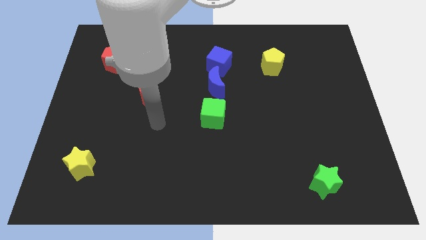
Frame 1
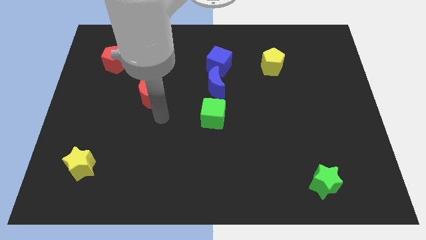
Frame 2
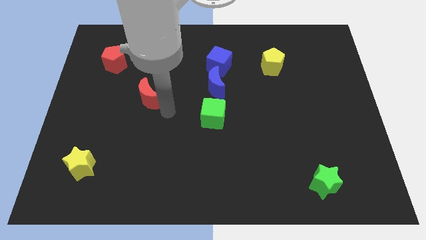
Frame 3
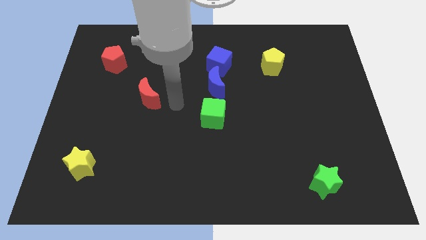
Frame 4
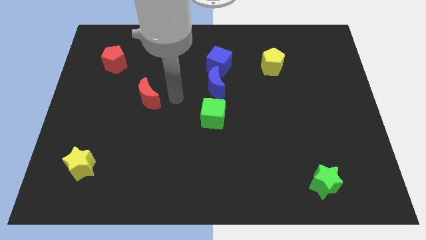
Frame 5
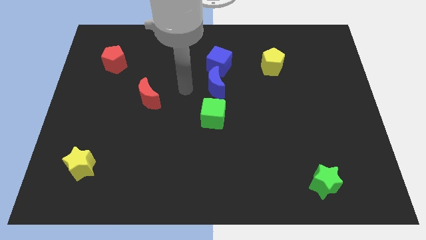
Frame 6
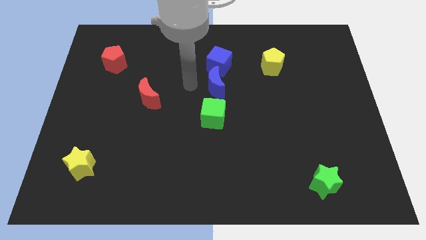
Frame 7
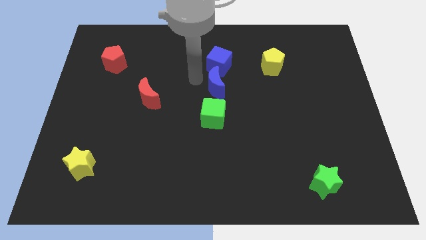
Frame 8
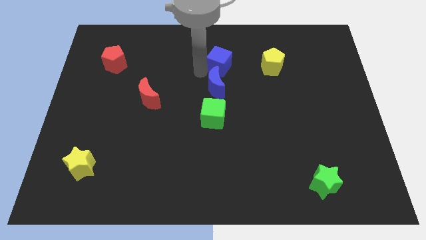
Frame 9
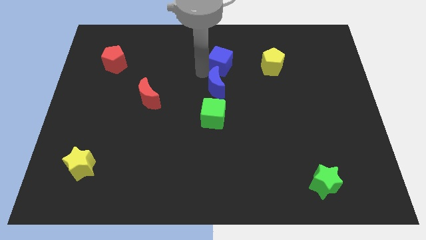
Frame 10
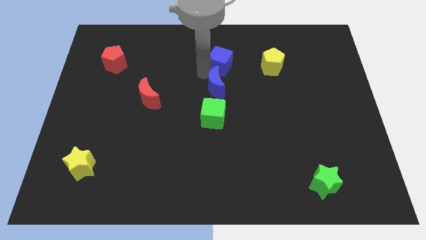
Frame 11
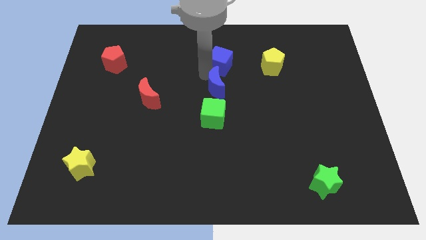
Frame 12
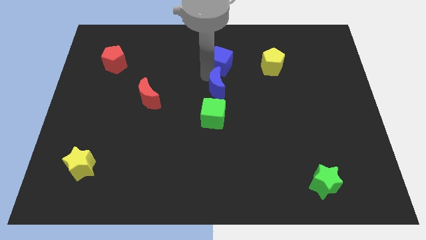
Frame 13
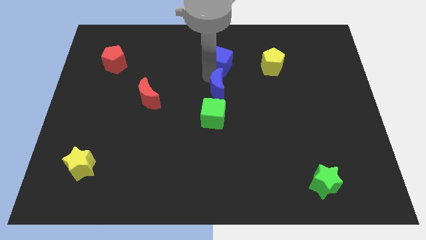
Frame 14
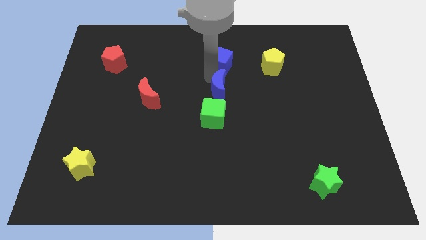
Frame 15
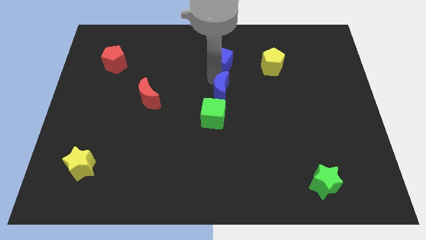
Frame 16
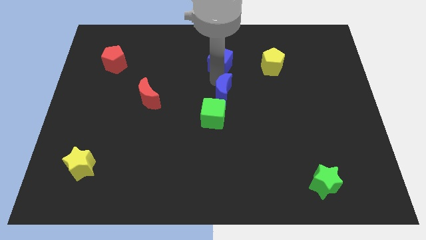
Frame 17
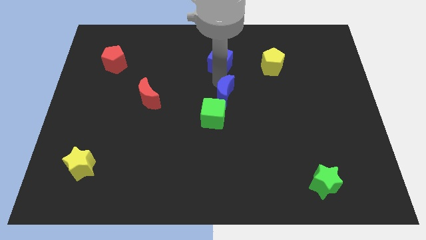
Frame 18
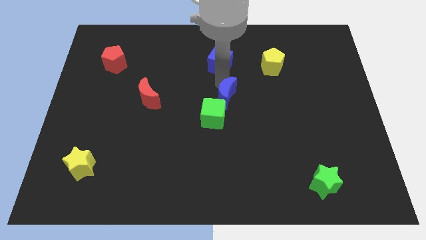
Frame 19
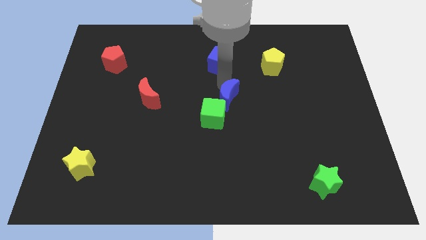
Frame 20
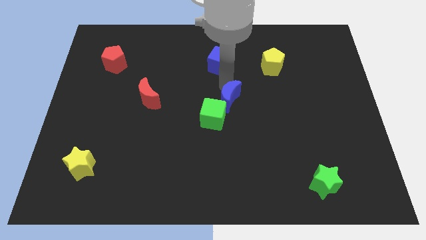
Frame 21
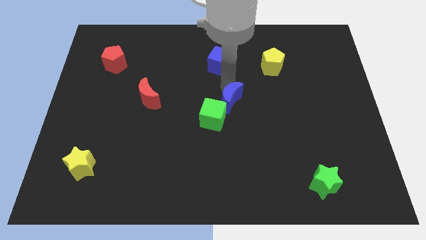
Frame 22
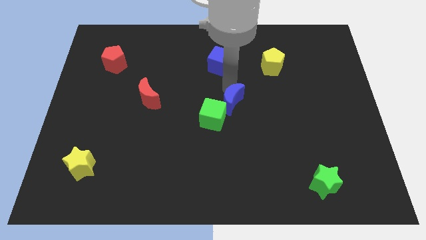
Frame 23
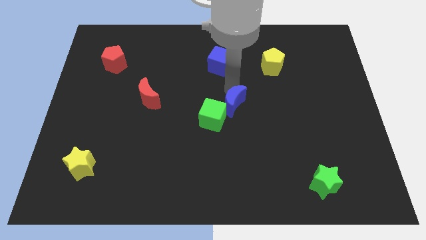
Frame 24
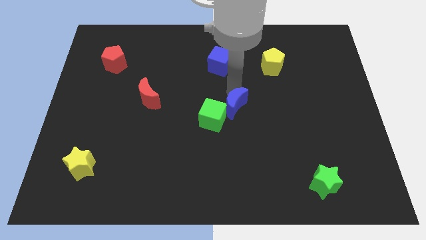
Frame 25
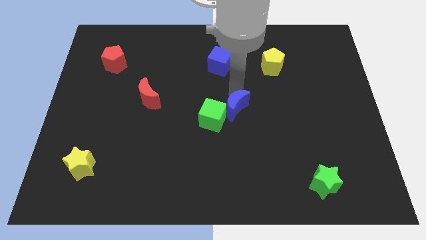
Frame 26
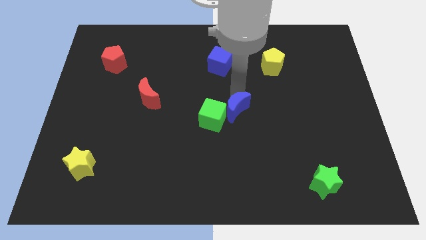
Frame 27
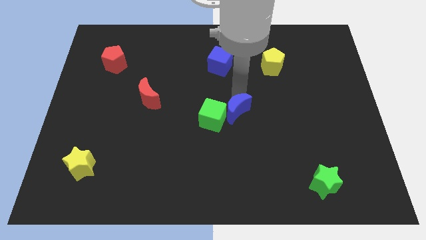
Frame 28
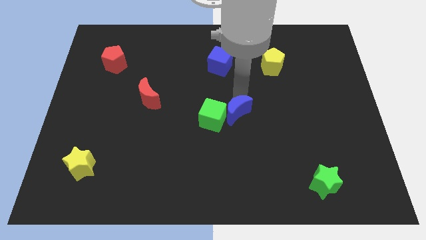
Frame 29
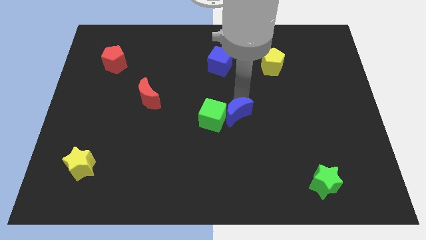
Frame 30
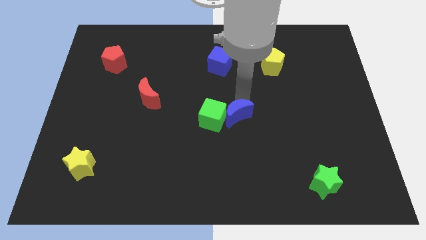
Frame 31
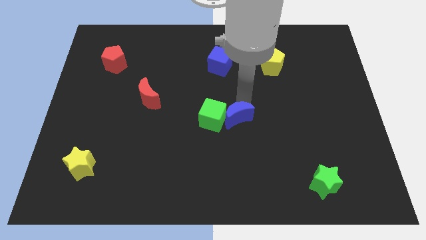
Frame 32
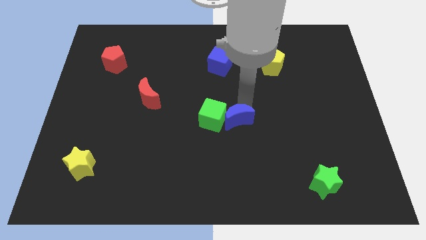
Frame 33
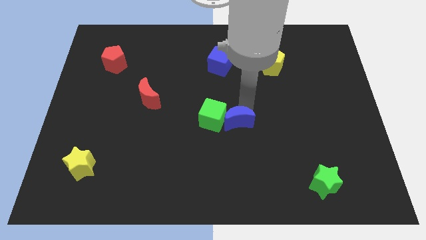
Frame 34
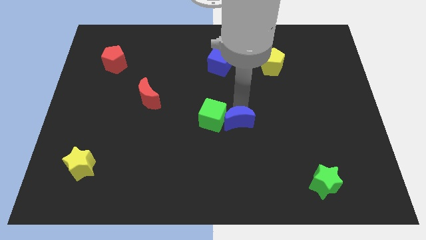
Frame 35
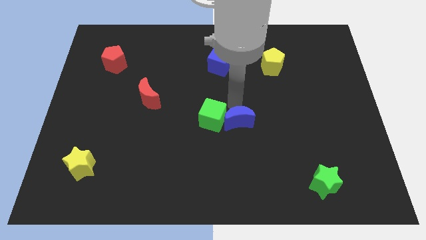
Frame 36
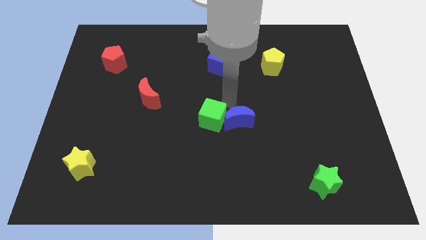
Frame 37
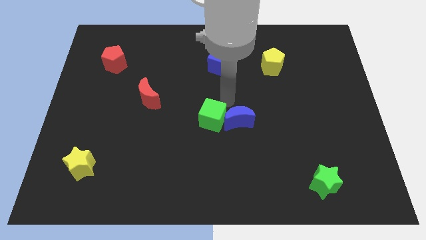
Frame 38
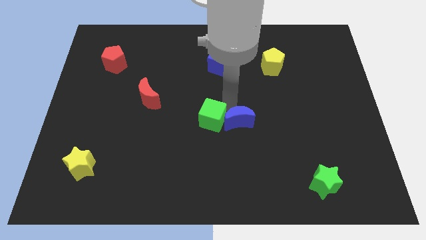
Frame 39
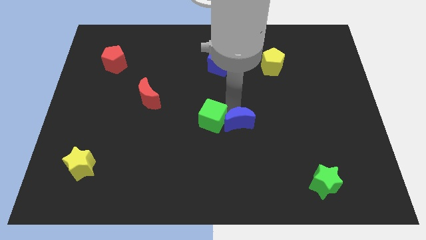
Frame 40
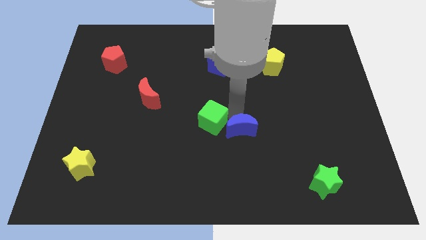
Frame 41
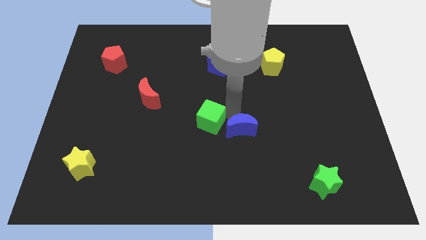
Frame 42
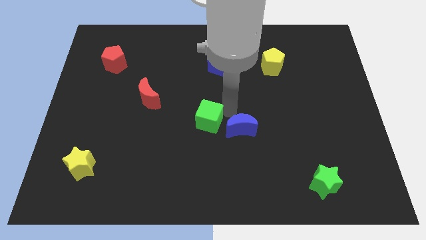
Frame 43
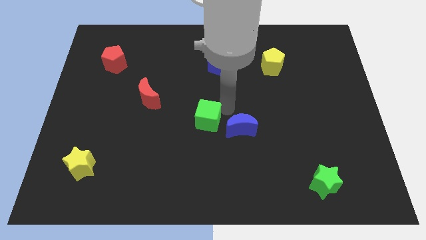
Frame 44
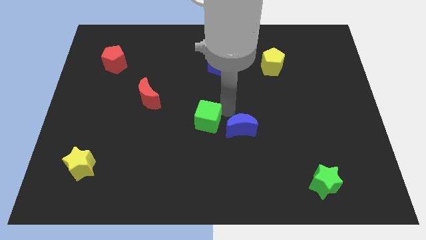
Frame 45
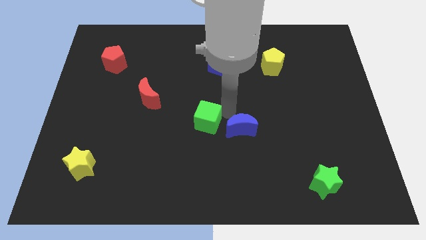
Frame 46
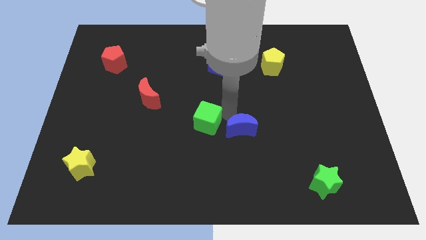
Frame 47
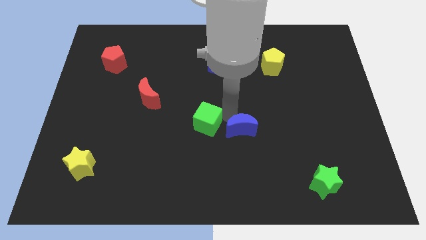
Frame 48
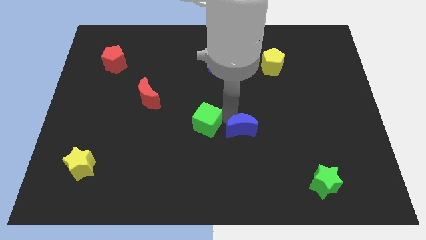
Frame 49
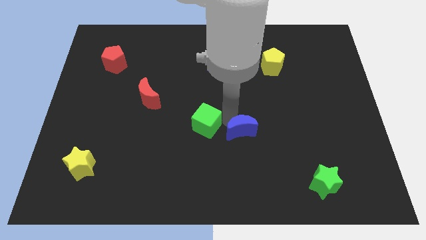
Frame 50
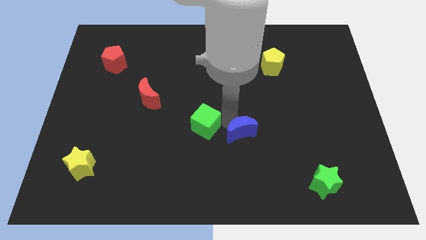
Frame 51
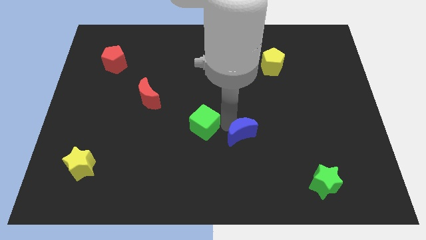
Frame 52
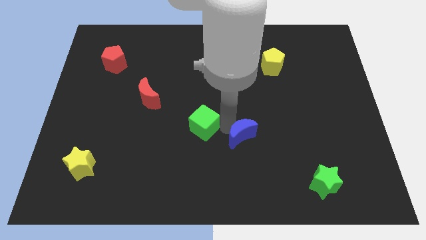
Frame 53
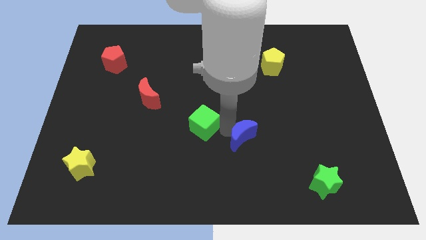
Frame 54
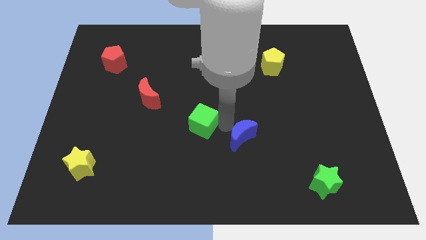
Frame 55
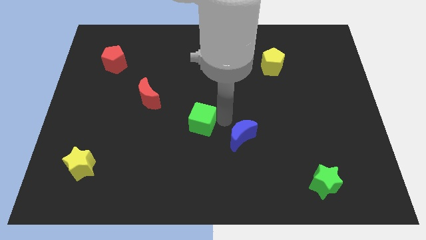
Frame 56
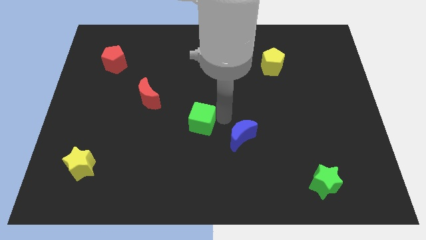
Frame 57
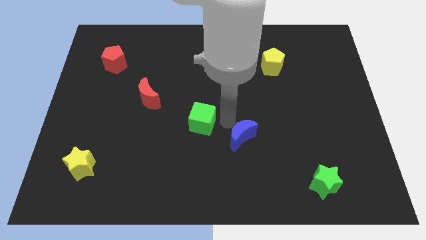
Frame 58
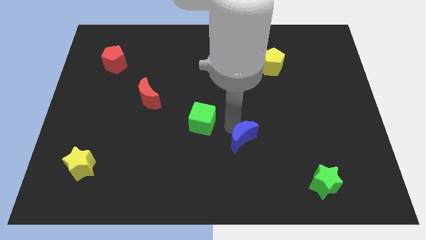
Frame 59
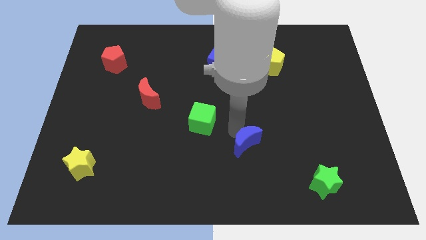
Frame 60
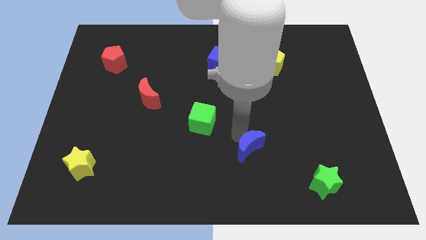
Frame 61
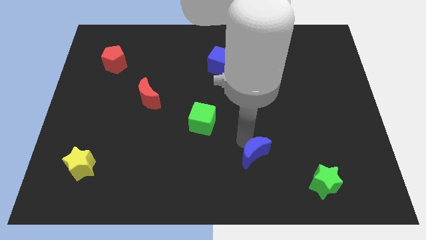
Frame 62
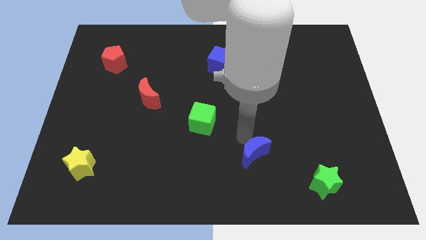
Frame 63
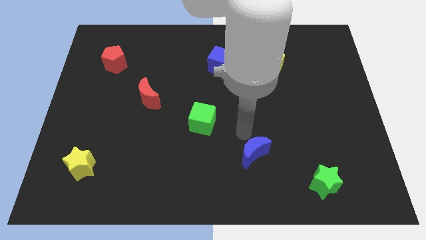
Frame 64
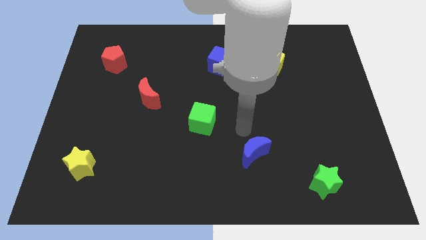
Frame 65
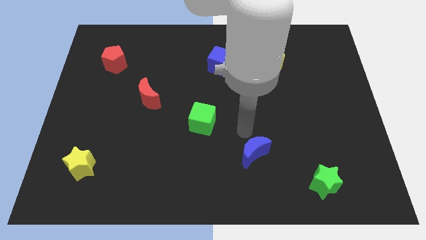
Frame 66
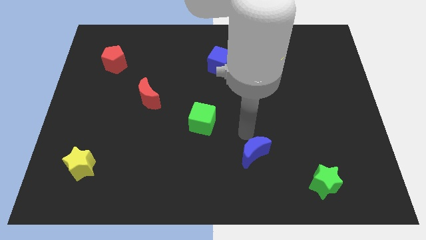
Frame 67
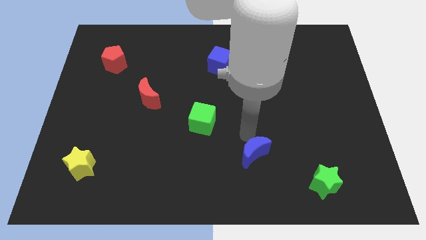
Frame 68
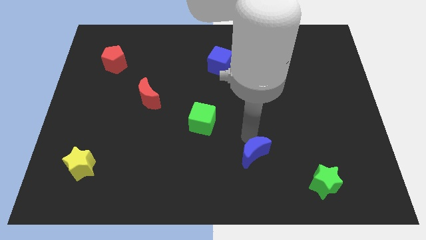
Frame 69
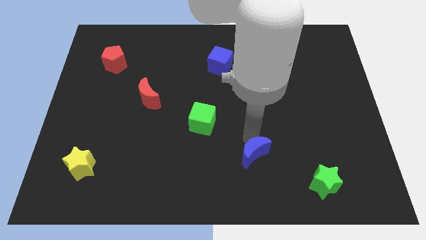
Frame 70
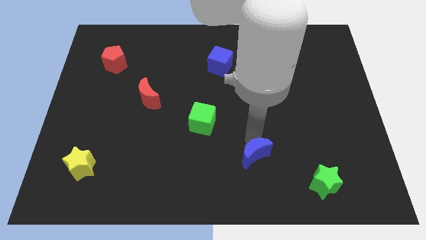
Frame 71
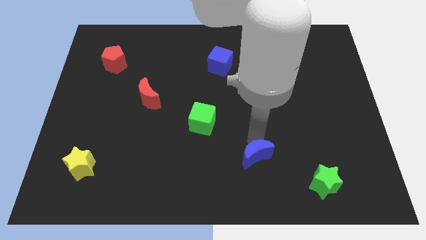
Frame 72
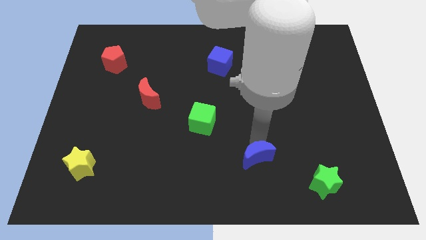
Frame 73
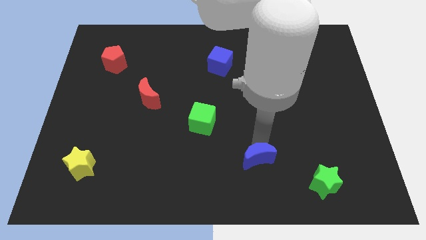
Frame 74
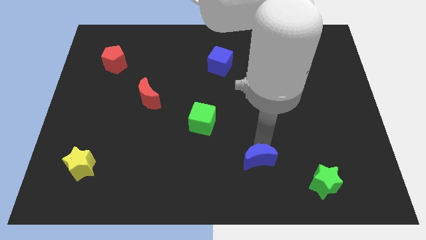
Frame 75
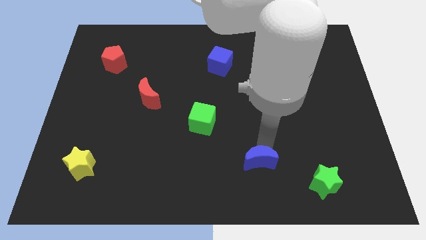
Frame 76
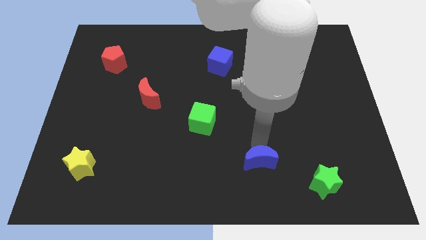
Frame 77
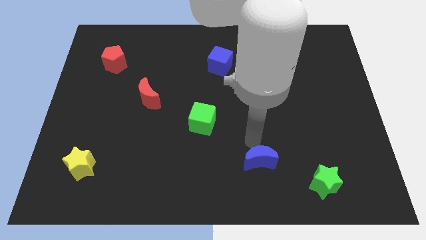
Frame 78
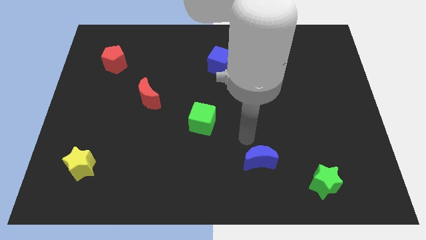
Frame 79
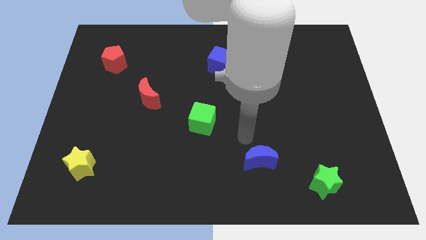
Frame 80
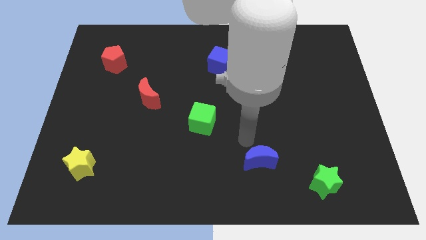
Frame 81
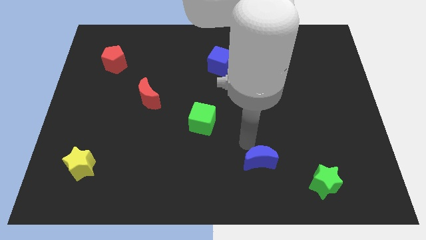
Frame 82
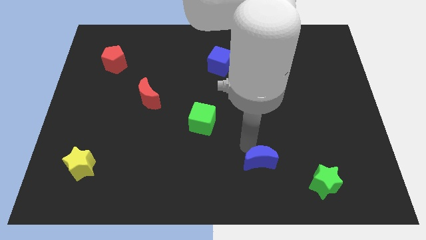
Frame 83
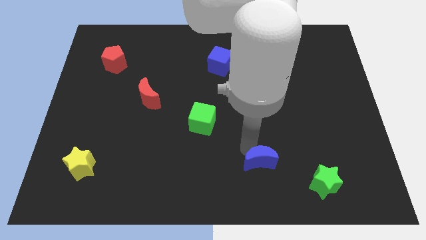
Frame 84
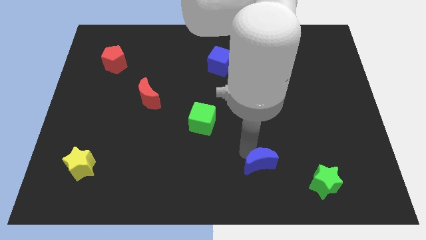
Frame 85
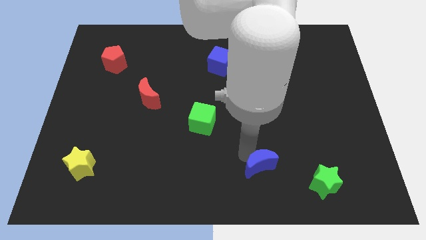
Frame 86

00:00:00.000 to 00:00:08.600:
push the blue moon to the left side of the green star
